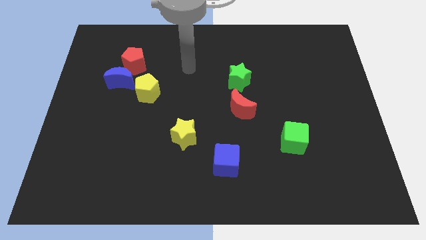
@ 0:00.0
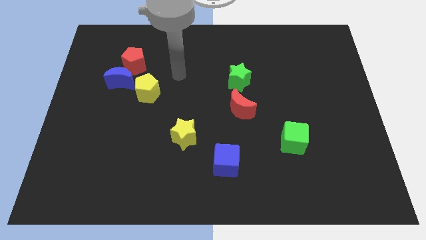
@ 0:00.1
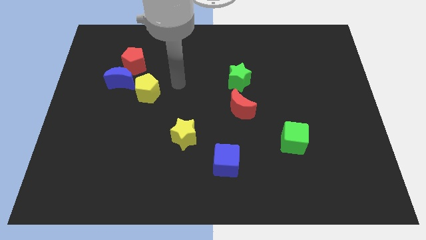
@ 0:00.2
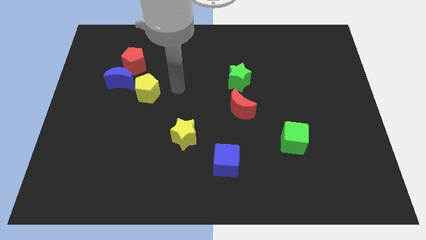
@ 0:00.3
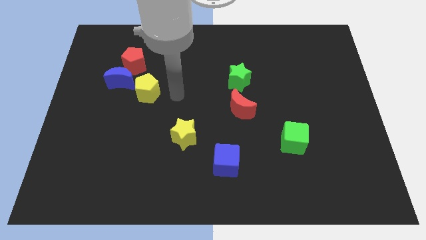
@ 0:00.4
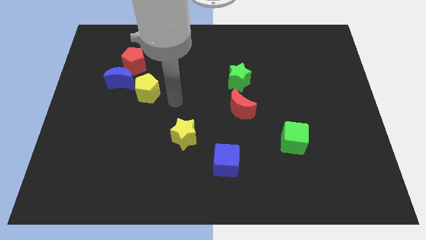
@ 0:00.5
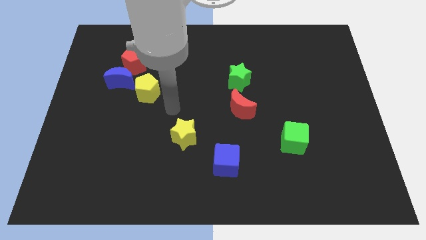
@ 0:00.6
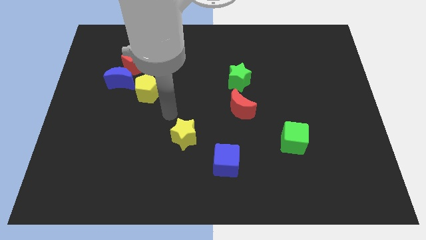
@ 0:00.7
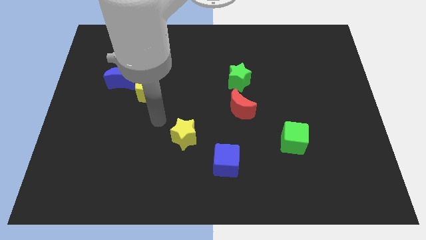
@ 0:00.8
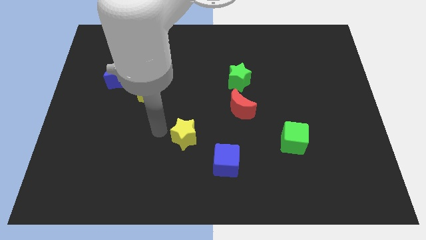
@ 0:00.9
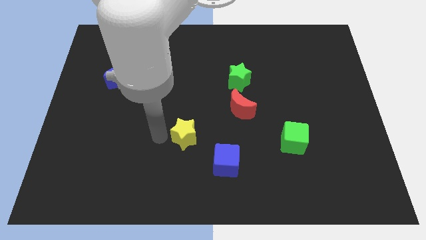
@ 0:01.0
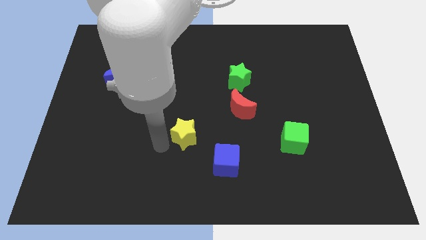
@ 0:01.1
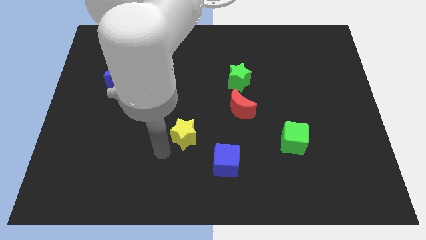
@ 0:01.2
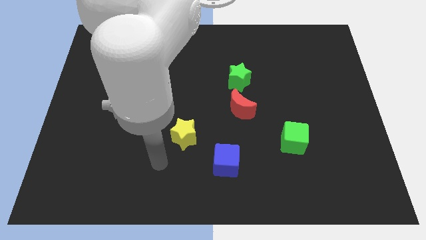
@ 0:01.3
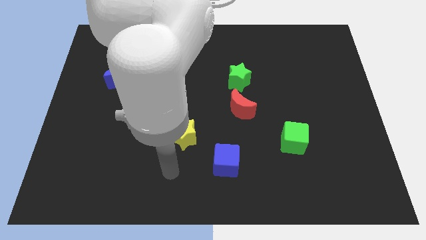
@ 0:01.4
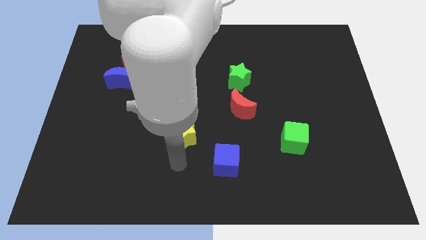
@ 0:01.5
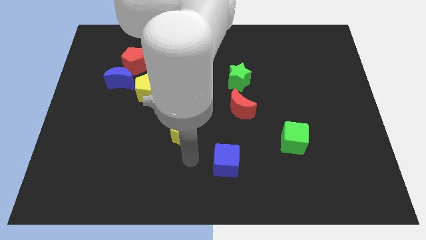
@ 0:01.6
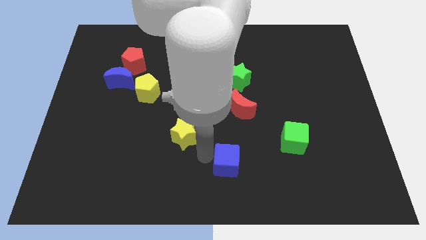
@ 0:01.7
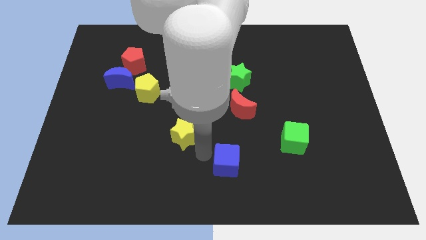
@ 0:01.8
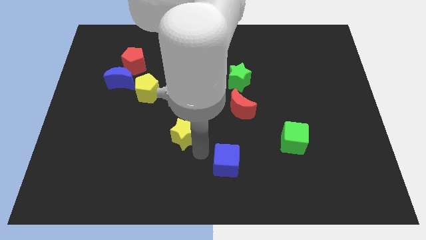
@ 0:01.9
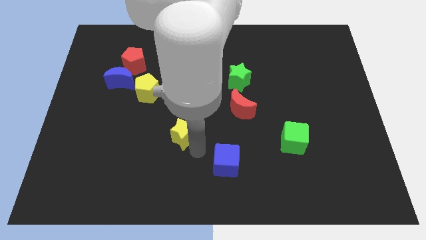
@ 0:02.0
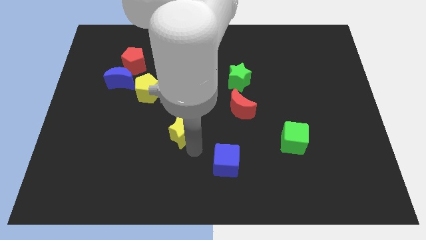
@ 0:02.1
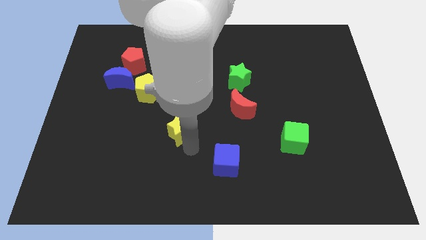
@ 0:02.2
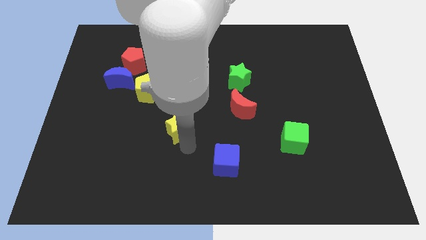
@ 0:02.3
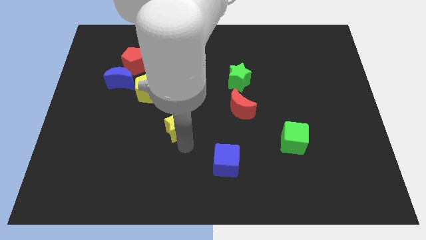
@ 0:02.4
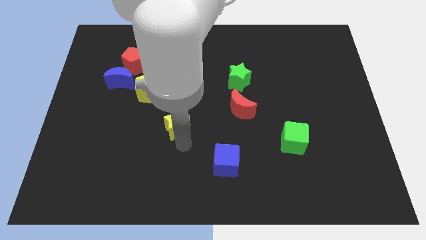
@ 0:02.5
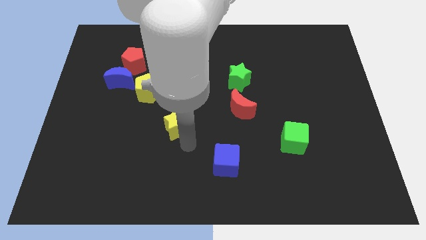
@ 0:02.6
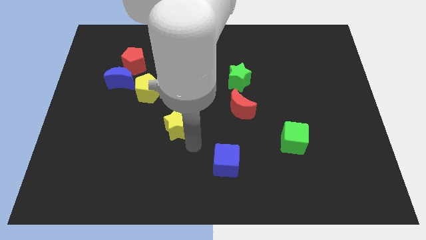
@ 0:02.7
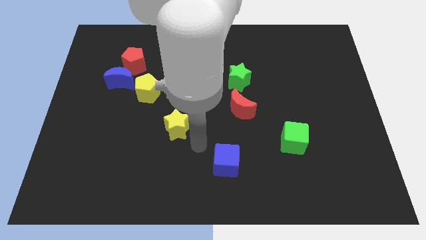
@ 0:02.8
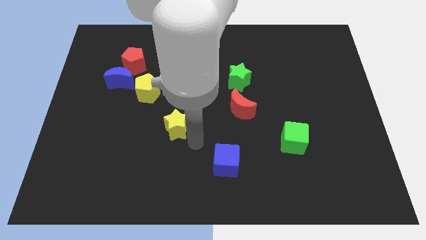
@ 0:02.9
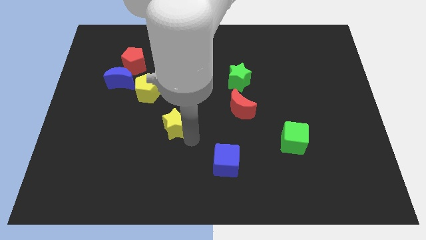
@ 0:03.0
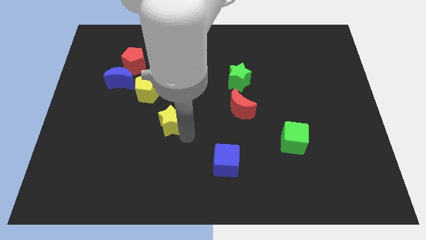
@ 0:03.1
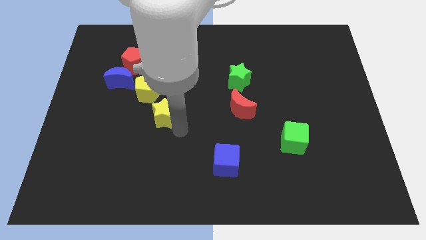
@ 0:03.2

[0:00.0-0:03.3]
push the yellow star up and then left somewhat

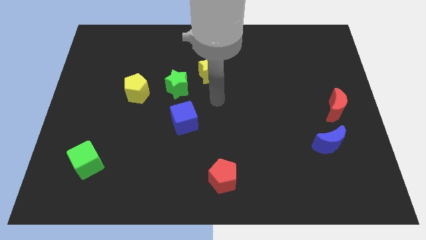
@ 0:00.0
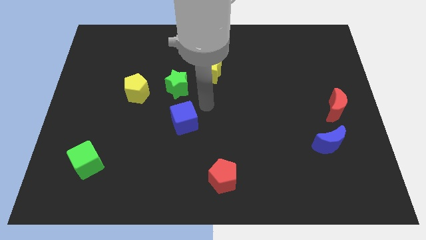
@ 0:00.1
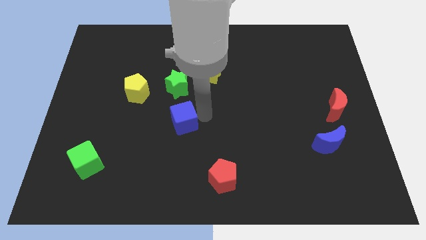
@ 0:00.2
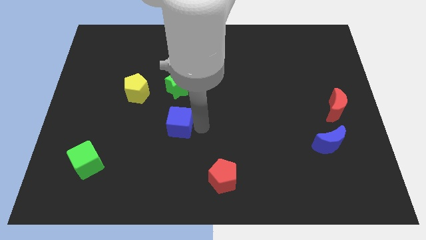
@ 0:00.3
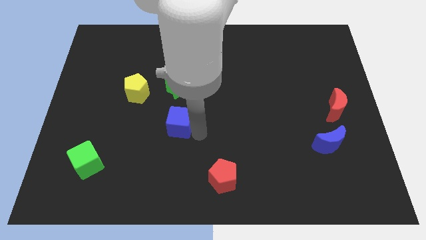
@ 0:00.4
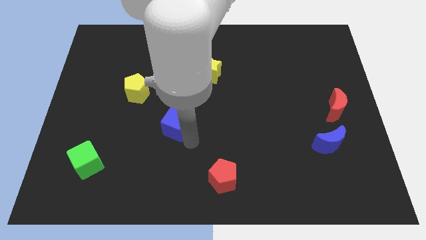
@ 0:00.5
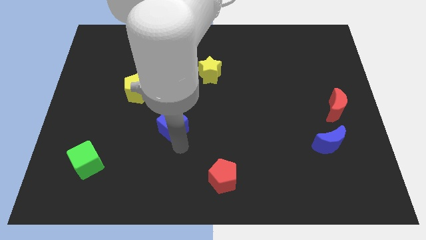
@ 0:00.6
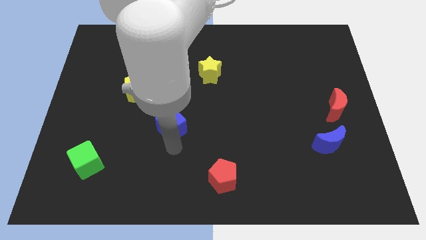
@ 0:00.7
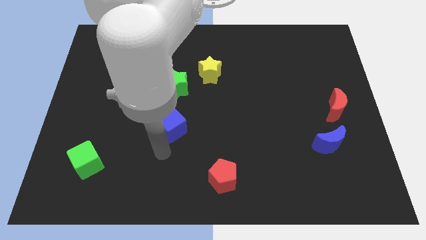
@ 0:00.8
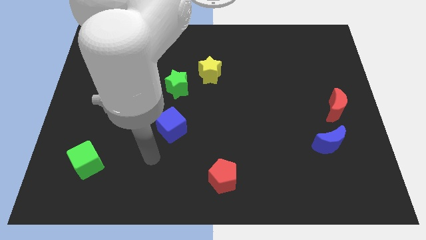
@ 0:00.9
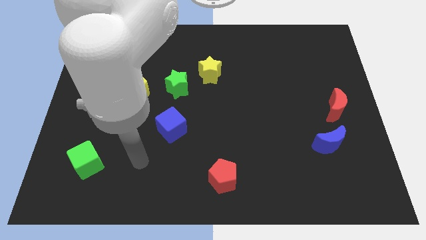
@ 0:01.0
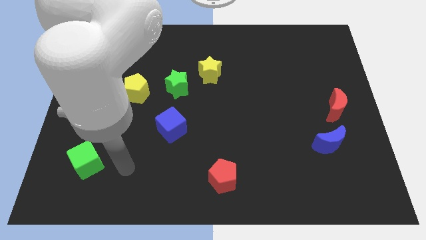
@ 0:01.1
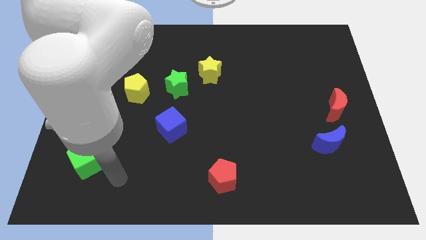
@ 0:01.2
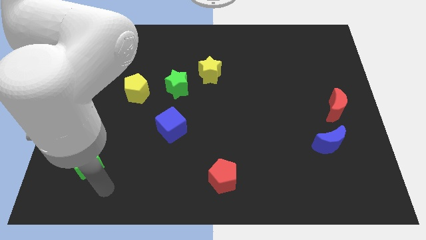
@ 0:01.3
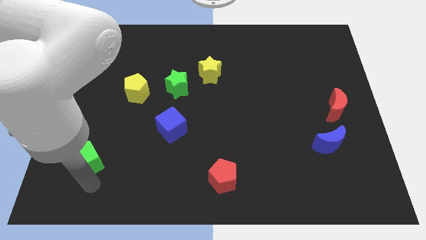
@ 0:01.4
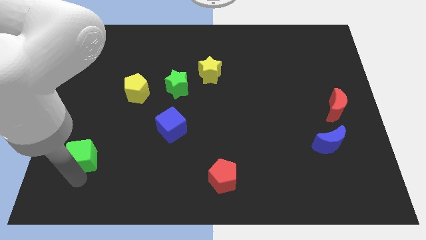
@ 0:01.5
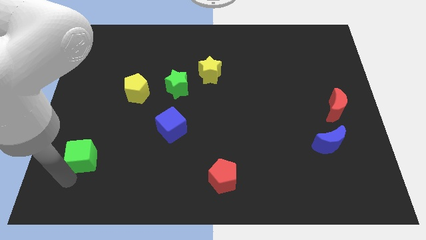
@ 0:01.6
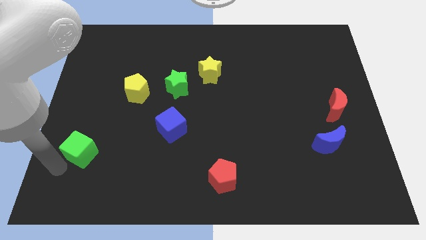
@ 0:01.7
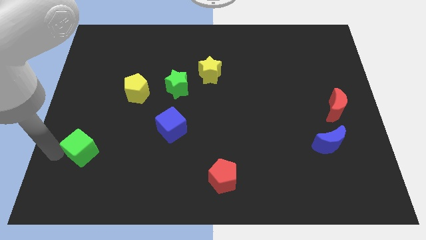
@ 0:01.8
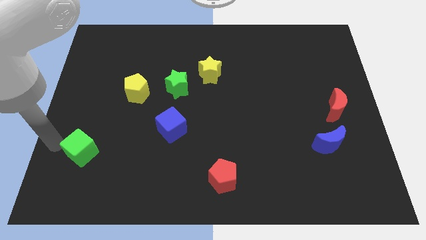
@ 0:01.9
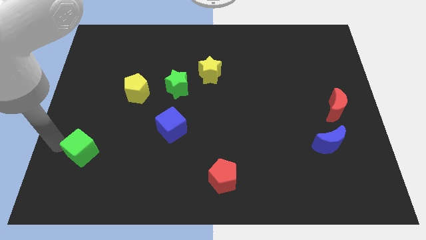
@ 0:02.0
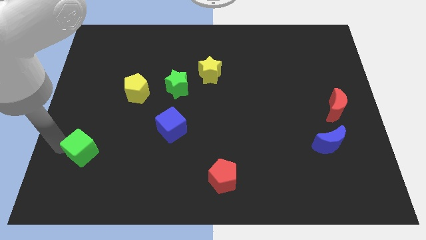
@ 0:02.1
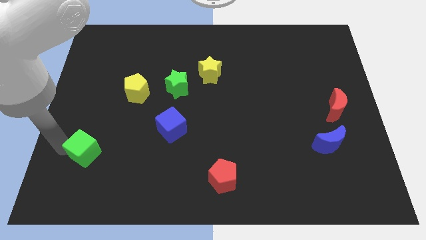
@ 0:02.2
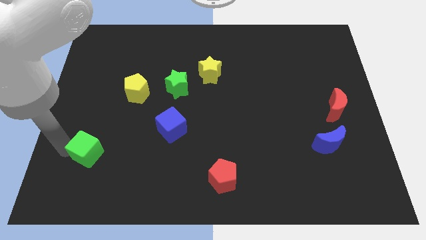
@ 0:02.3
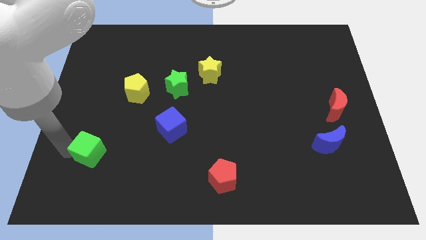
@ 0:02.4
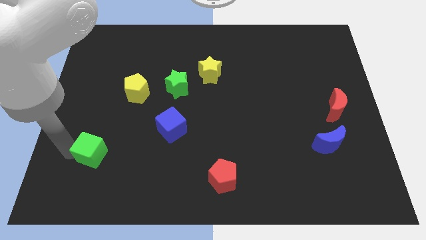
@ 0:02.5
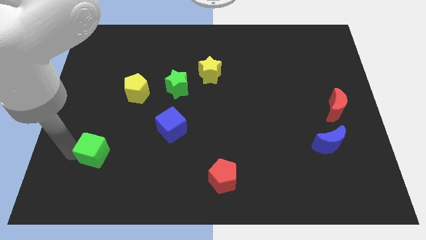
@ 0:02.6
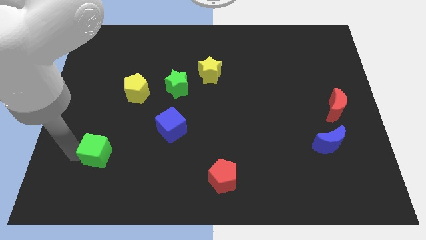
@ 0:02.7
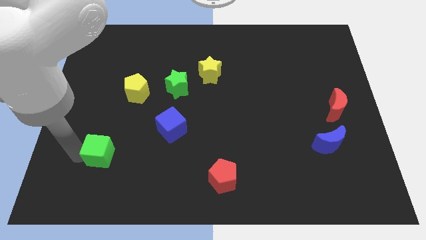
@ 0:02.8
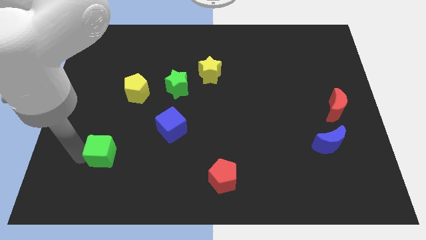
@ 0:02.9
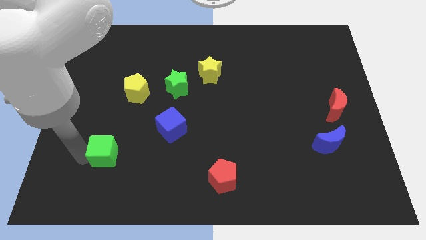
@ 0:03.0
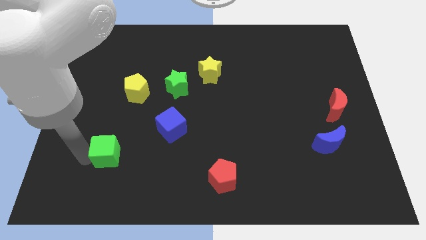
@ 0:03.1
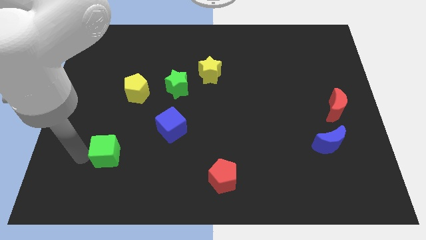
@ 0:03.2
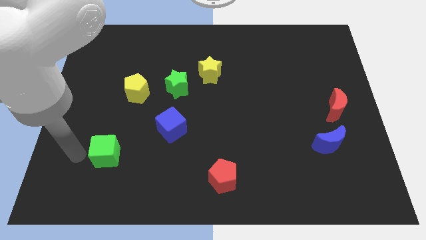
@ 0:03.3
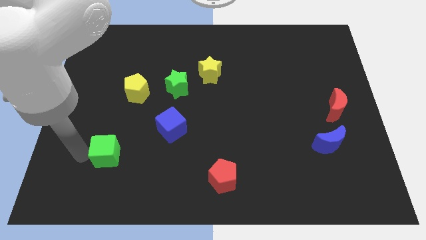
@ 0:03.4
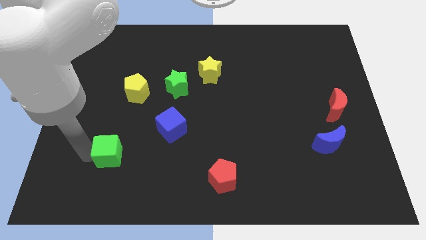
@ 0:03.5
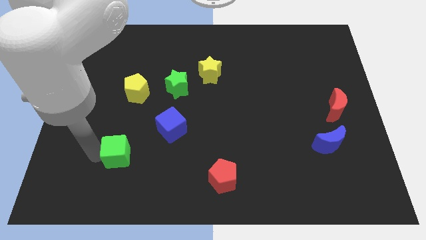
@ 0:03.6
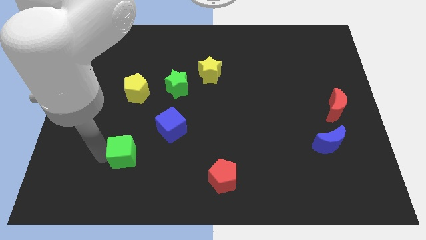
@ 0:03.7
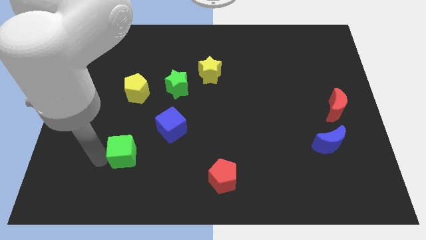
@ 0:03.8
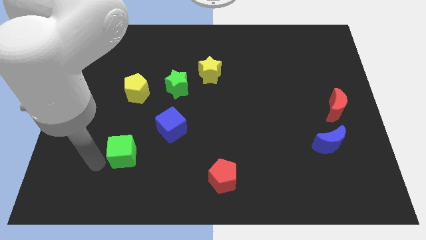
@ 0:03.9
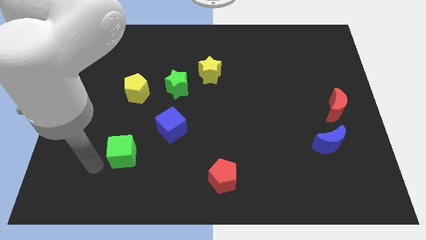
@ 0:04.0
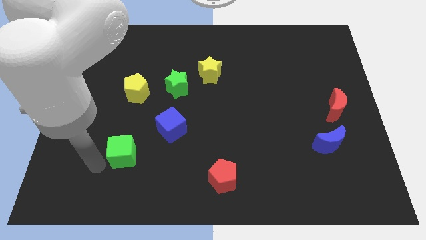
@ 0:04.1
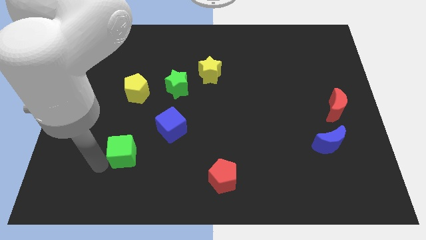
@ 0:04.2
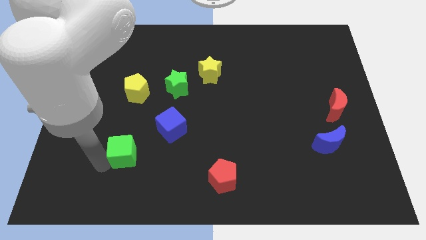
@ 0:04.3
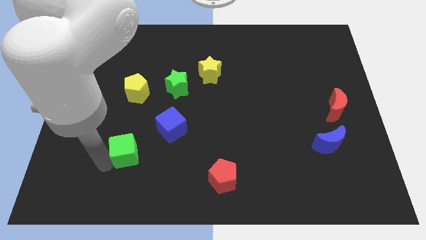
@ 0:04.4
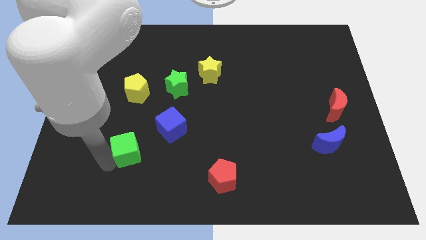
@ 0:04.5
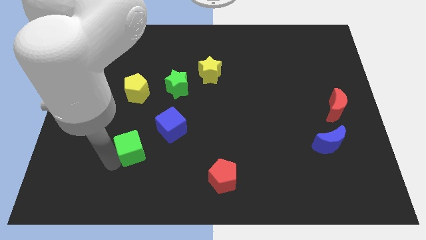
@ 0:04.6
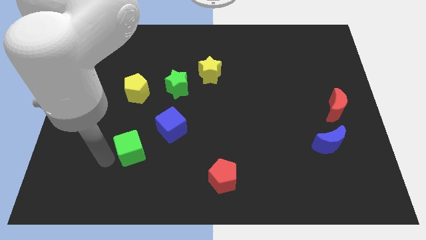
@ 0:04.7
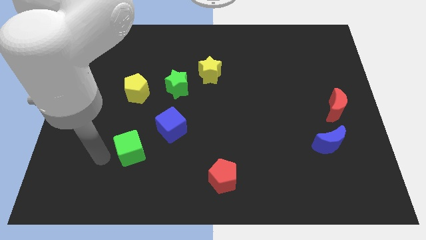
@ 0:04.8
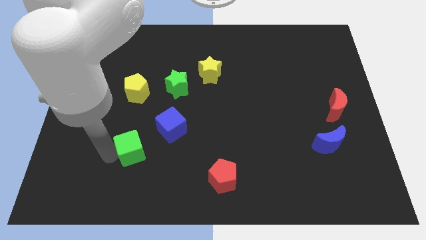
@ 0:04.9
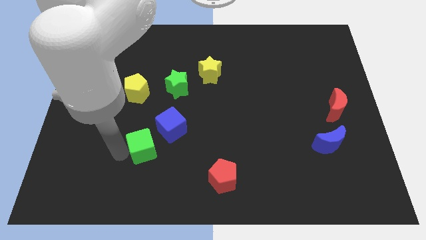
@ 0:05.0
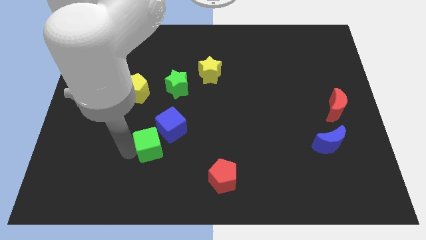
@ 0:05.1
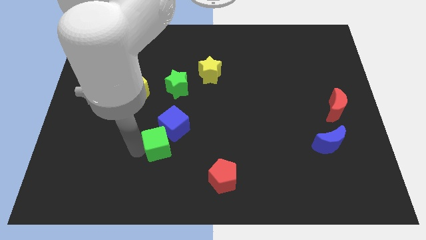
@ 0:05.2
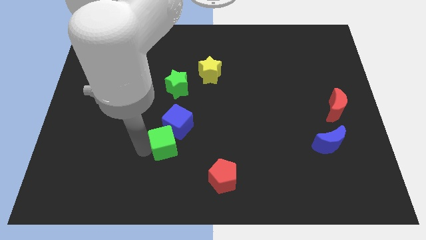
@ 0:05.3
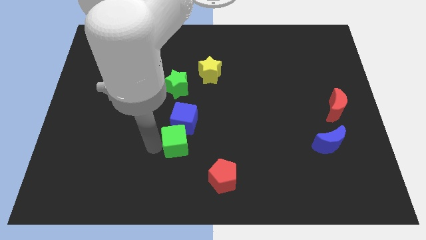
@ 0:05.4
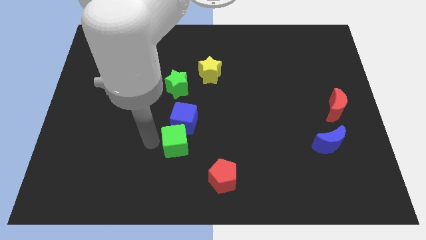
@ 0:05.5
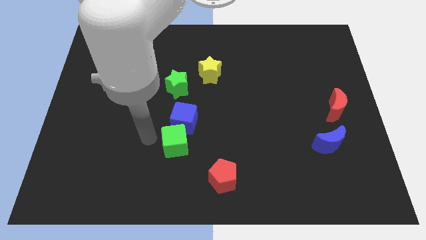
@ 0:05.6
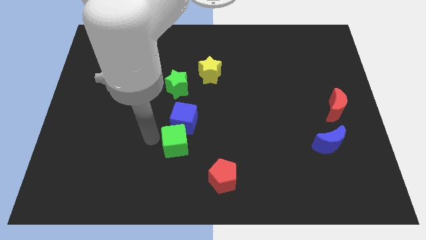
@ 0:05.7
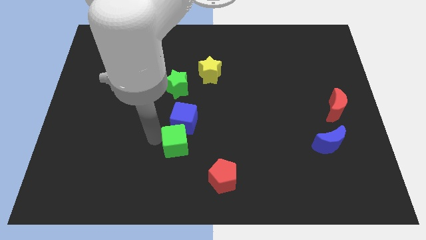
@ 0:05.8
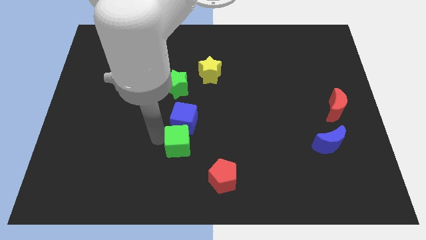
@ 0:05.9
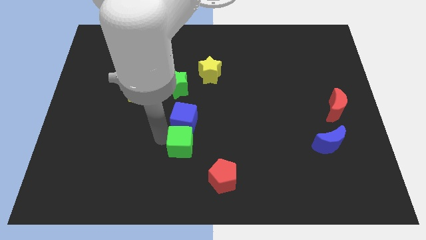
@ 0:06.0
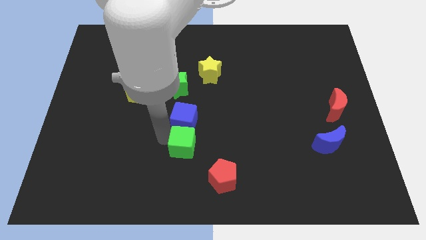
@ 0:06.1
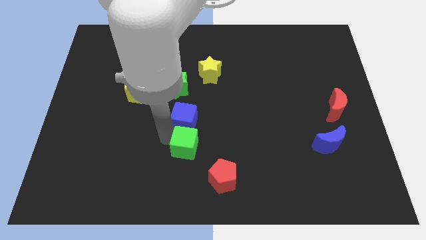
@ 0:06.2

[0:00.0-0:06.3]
slide the green cube to the right
